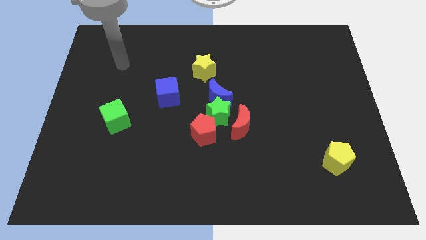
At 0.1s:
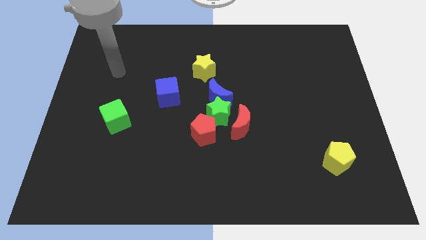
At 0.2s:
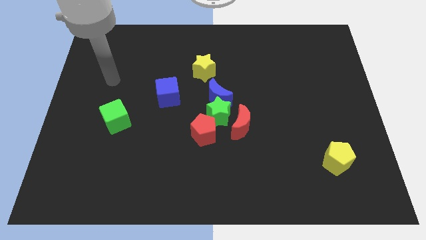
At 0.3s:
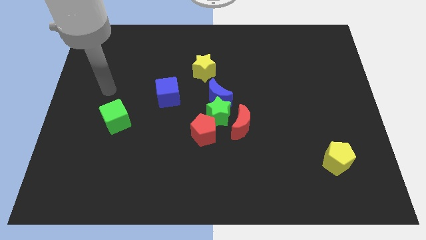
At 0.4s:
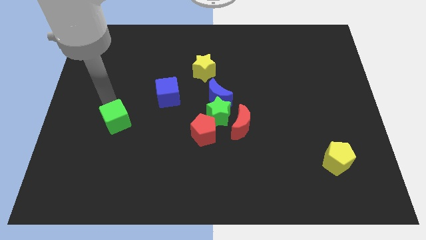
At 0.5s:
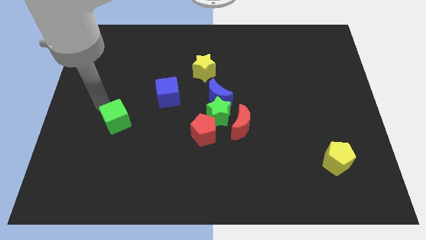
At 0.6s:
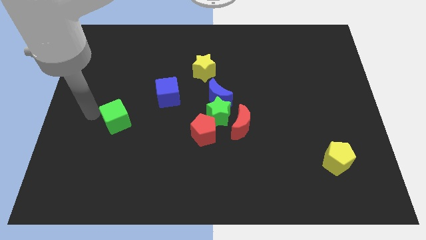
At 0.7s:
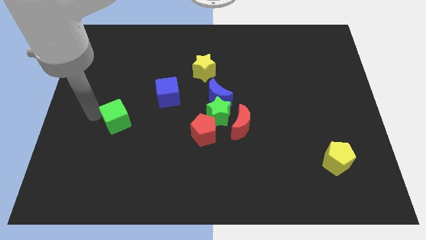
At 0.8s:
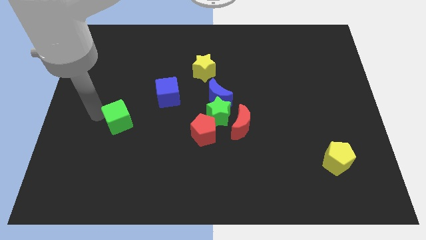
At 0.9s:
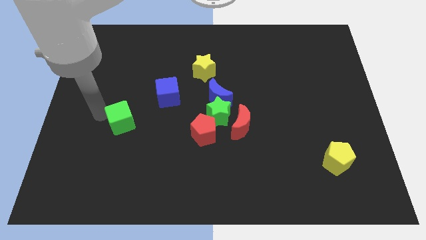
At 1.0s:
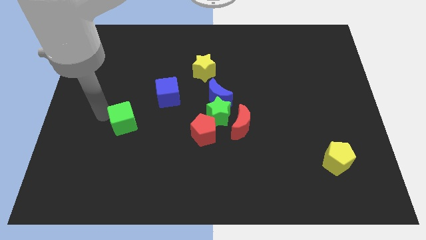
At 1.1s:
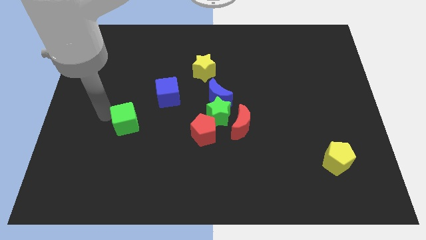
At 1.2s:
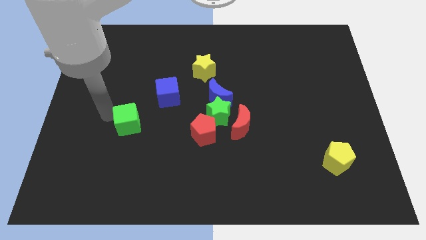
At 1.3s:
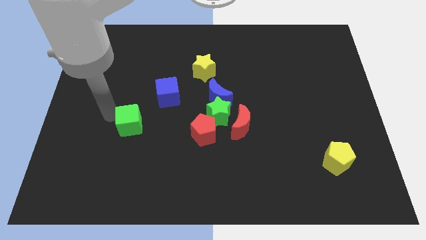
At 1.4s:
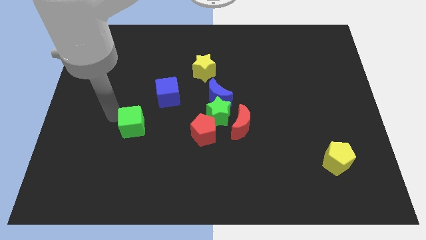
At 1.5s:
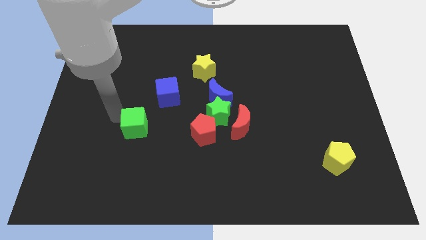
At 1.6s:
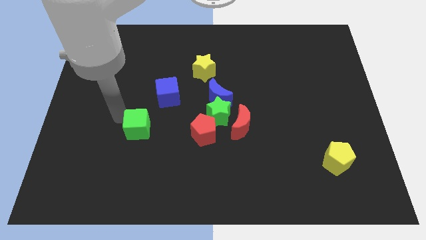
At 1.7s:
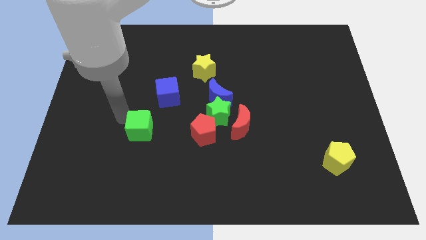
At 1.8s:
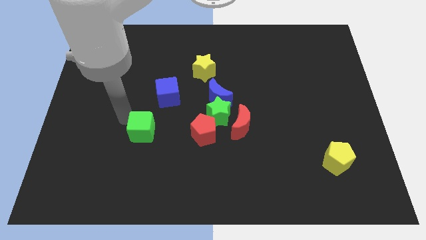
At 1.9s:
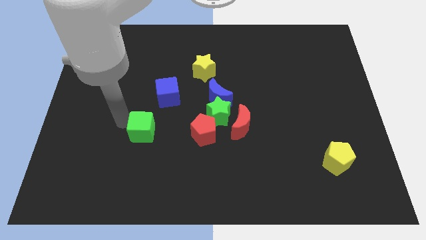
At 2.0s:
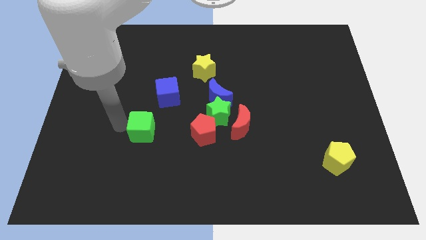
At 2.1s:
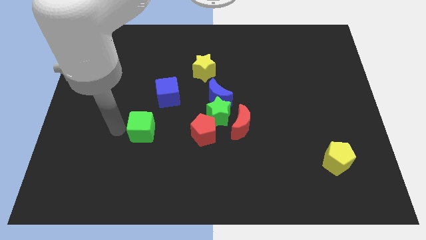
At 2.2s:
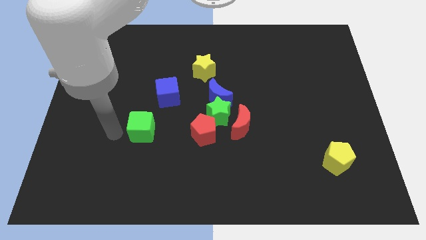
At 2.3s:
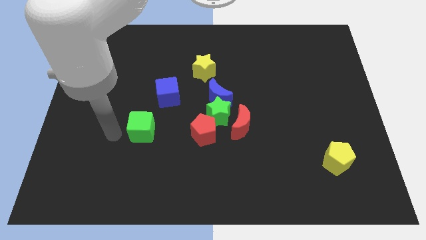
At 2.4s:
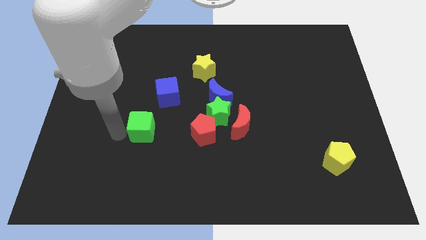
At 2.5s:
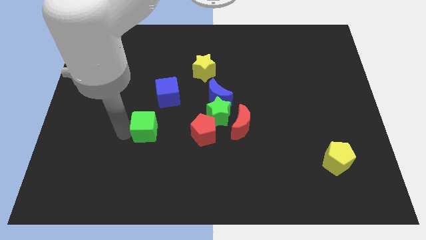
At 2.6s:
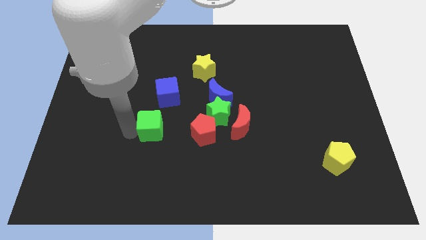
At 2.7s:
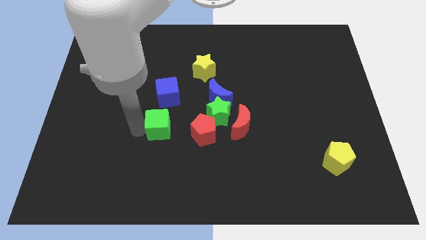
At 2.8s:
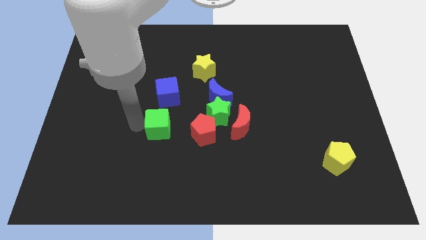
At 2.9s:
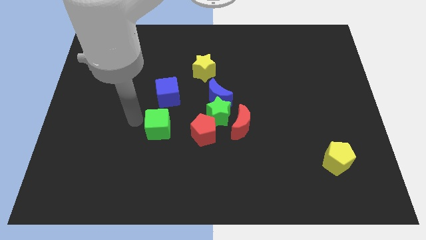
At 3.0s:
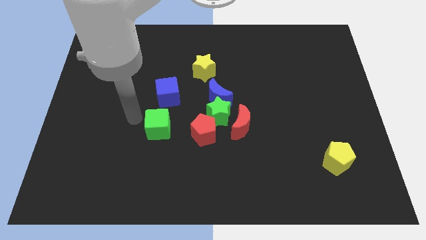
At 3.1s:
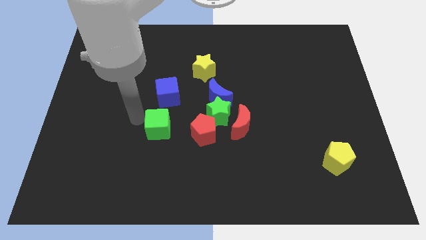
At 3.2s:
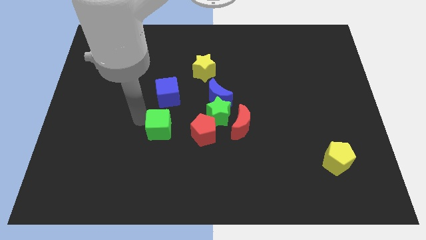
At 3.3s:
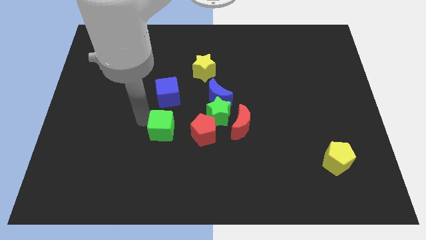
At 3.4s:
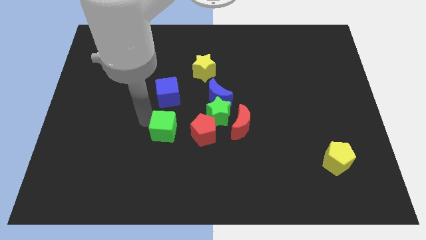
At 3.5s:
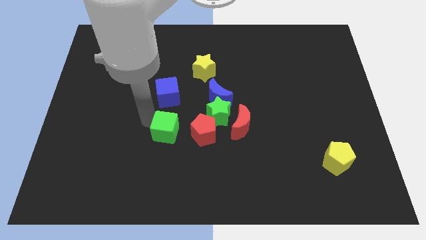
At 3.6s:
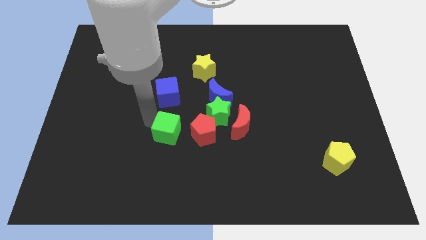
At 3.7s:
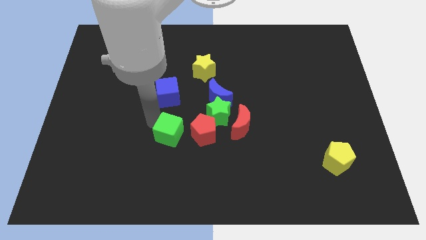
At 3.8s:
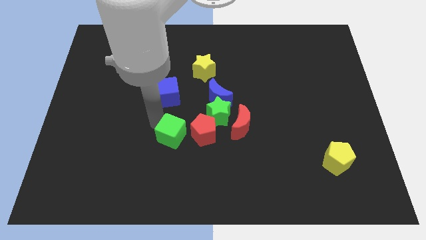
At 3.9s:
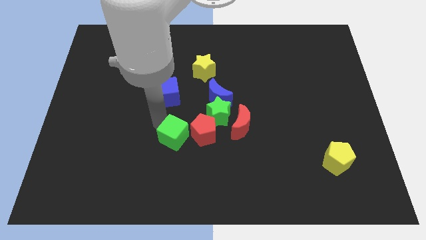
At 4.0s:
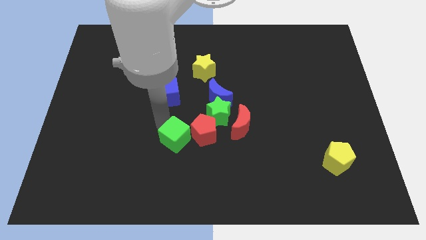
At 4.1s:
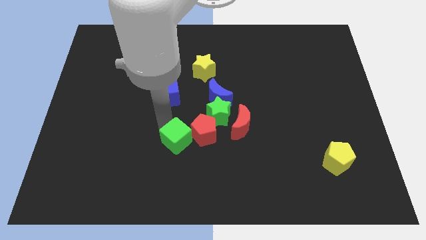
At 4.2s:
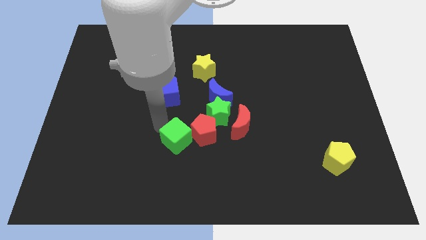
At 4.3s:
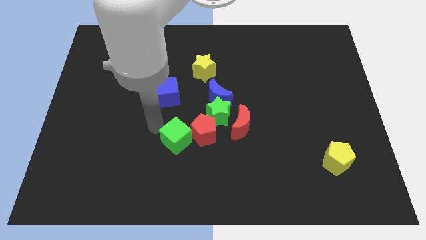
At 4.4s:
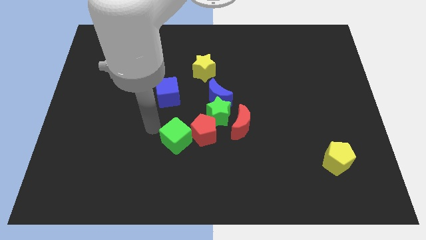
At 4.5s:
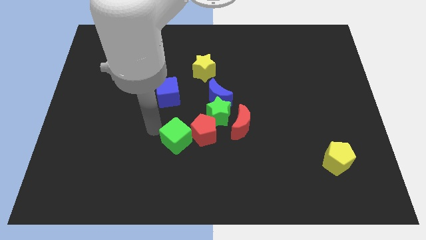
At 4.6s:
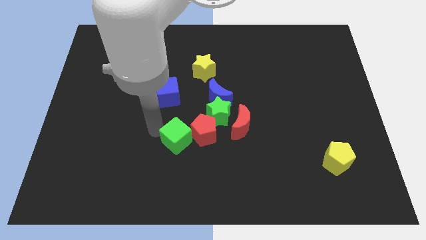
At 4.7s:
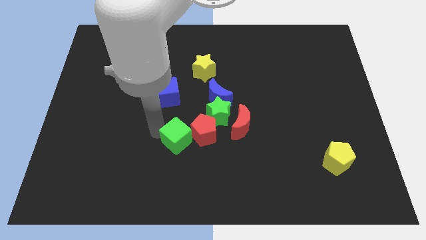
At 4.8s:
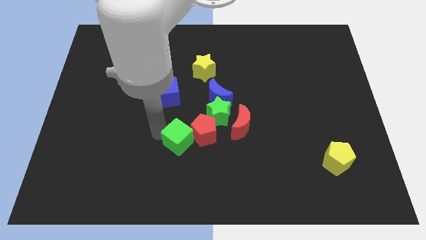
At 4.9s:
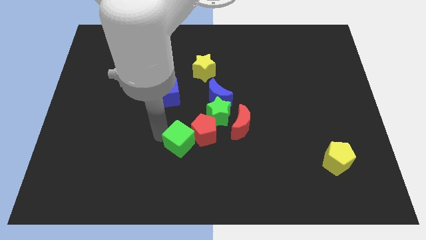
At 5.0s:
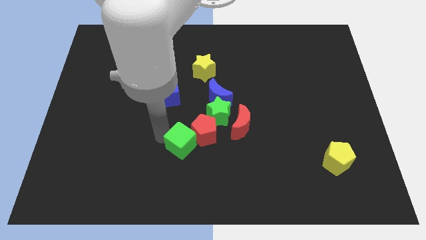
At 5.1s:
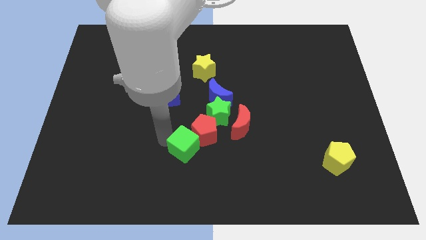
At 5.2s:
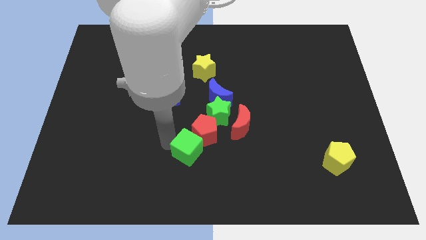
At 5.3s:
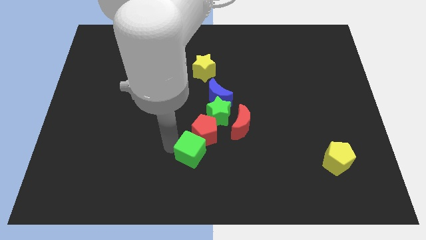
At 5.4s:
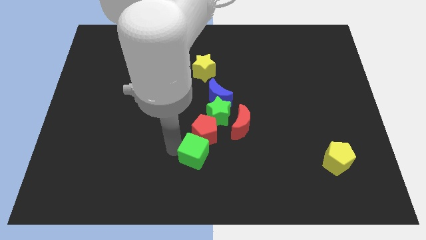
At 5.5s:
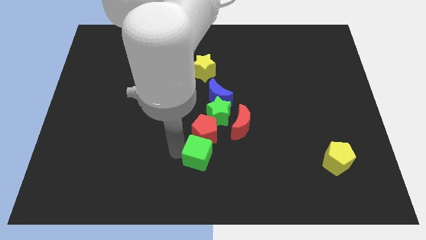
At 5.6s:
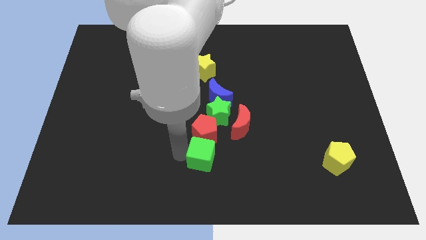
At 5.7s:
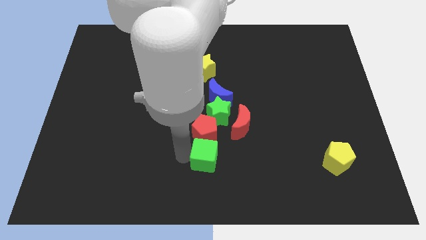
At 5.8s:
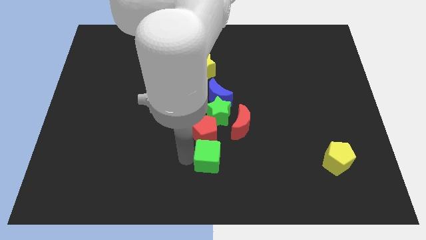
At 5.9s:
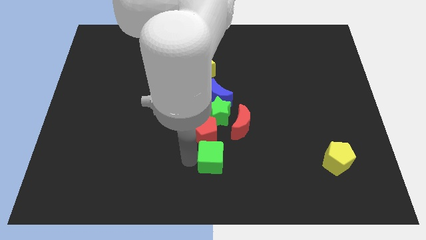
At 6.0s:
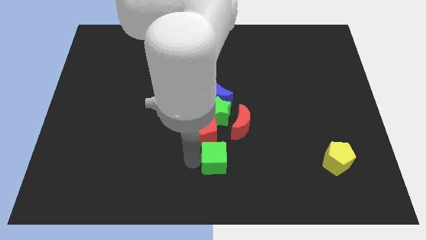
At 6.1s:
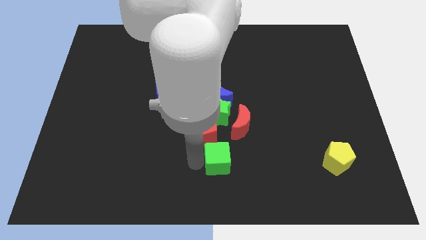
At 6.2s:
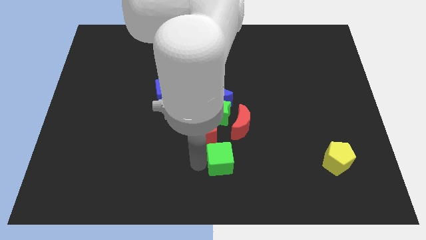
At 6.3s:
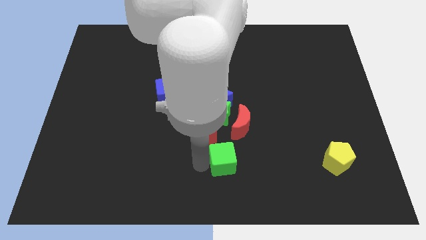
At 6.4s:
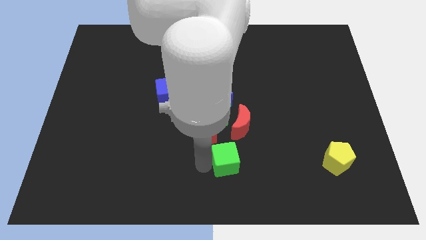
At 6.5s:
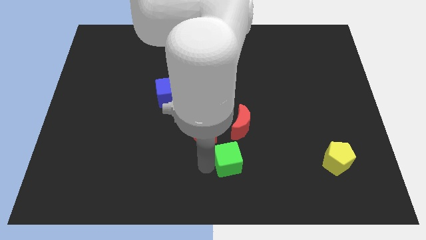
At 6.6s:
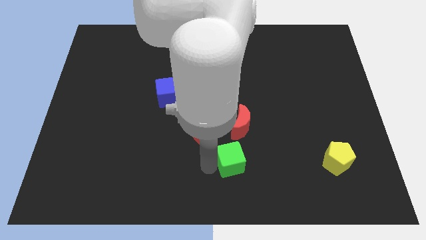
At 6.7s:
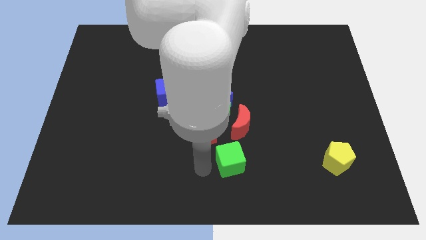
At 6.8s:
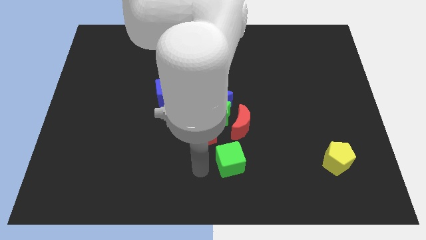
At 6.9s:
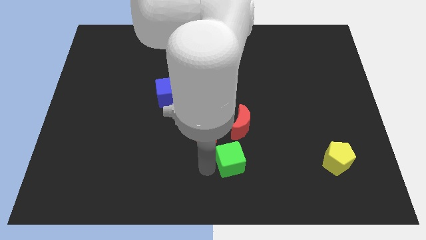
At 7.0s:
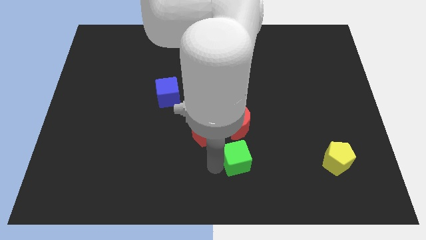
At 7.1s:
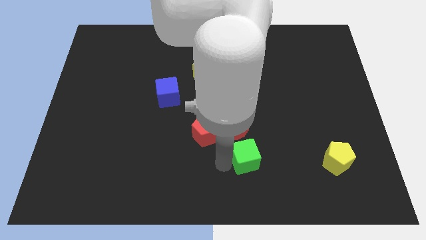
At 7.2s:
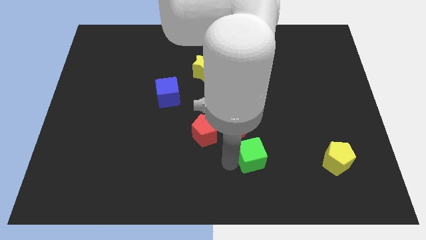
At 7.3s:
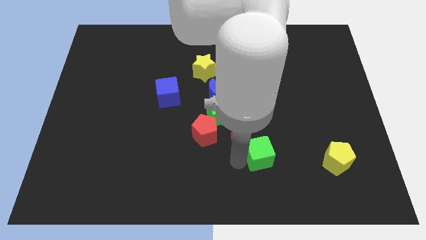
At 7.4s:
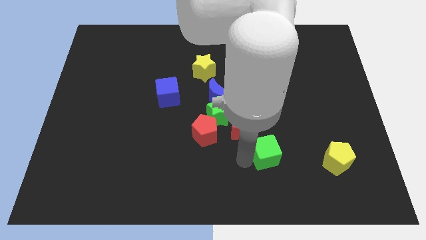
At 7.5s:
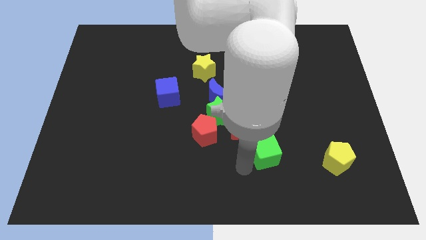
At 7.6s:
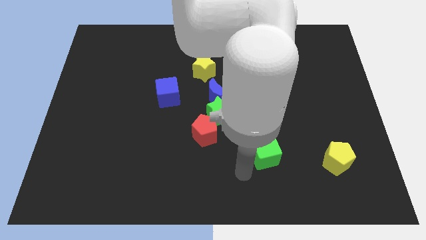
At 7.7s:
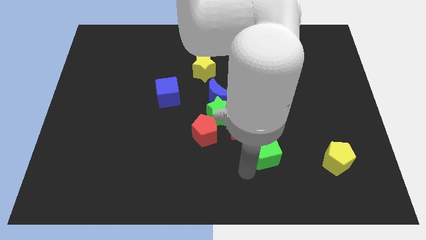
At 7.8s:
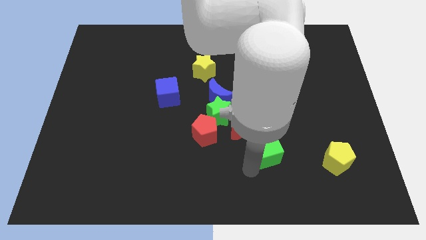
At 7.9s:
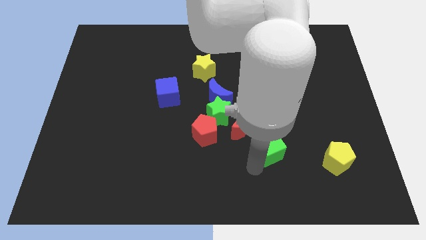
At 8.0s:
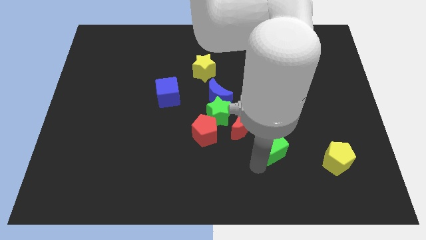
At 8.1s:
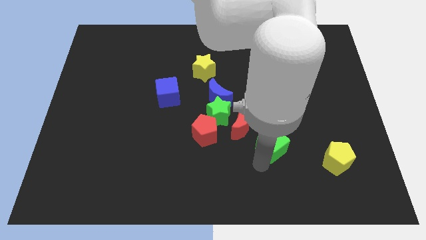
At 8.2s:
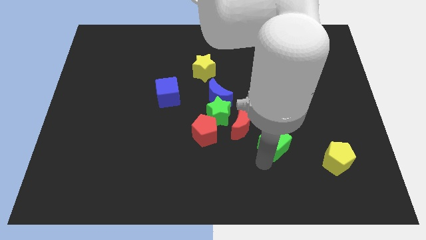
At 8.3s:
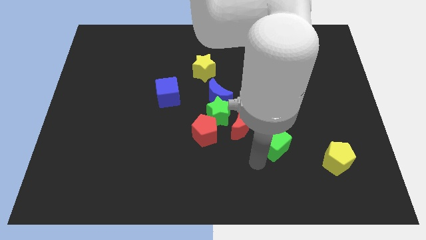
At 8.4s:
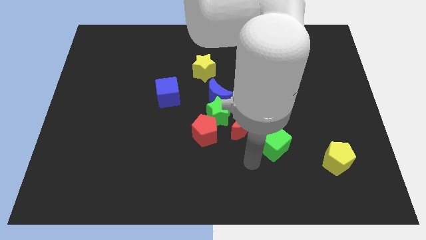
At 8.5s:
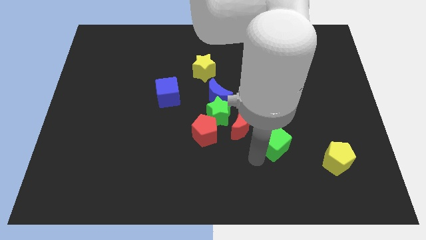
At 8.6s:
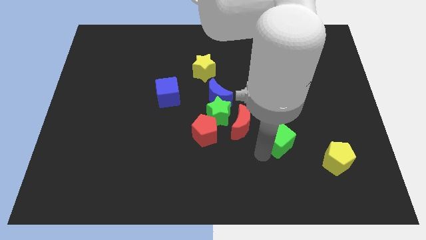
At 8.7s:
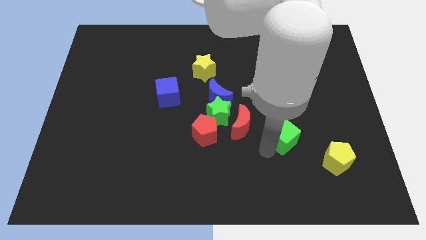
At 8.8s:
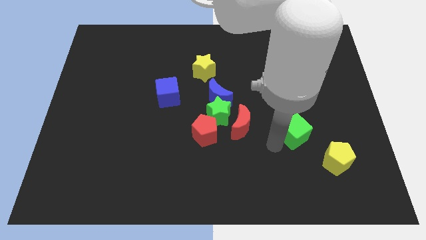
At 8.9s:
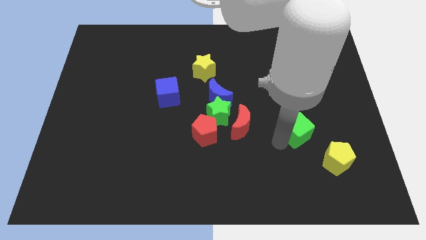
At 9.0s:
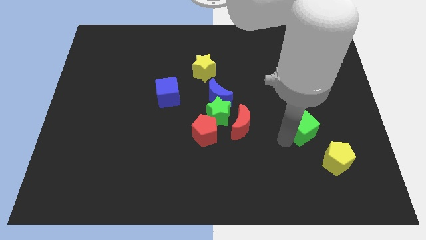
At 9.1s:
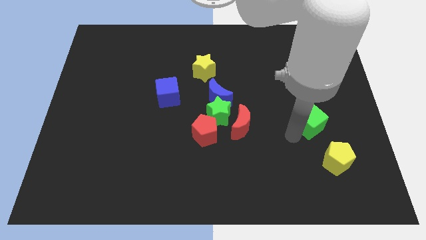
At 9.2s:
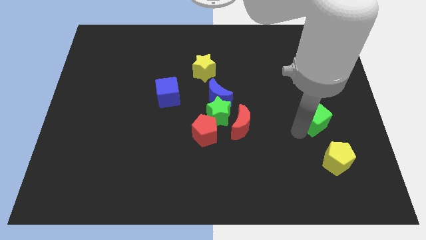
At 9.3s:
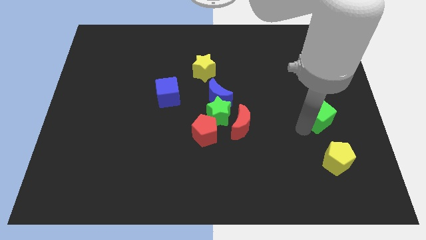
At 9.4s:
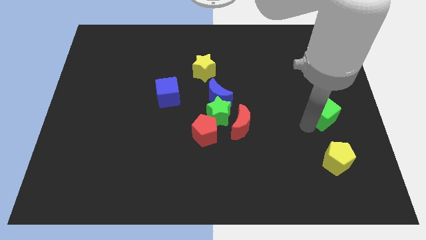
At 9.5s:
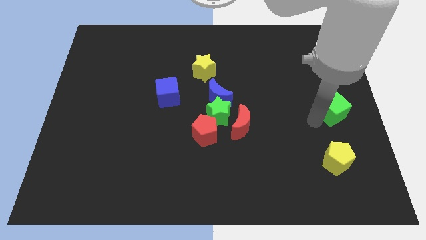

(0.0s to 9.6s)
push the green cube to the right side
